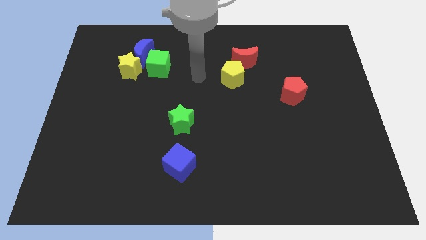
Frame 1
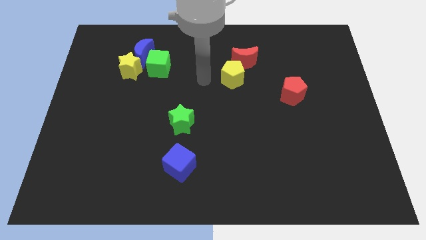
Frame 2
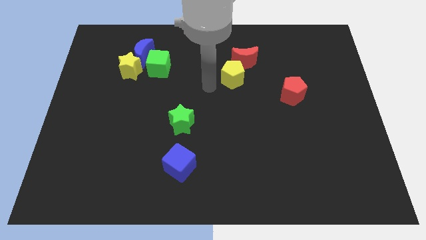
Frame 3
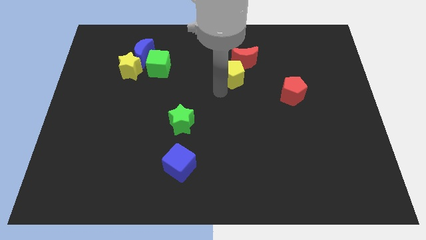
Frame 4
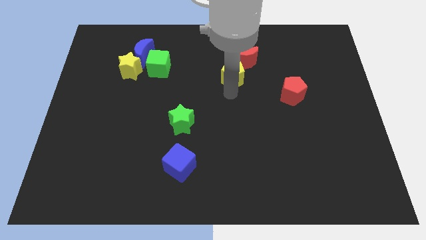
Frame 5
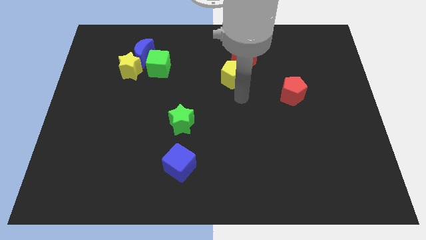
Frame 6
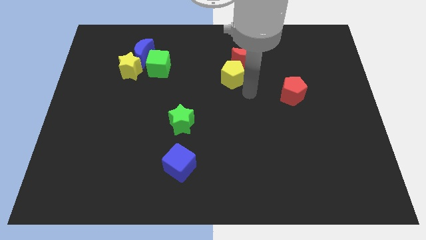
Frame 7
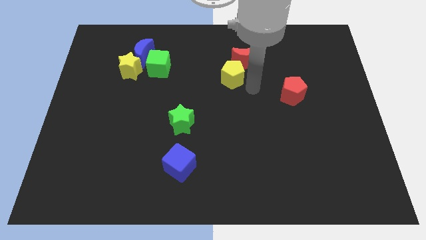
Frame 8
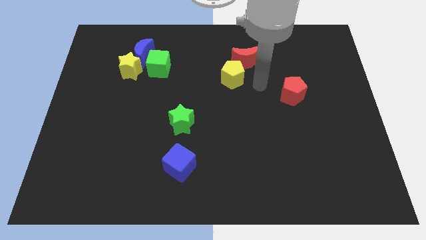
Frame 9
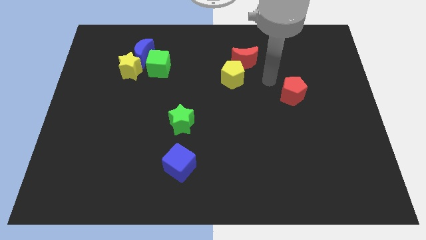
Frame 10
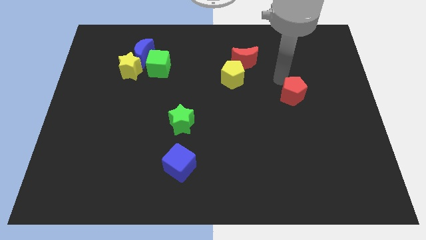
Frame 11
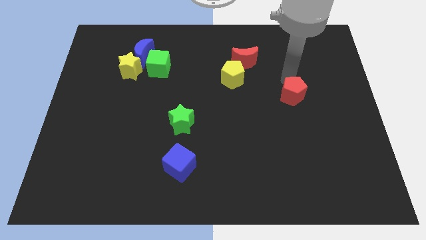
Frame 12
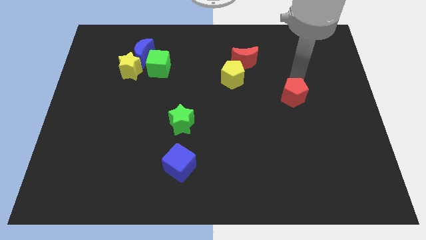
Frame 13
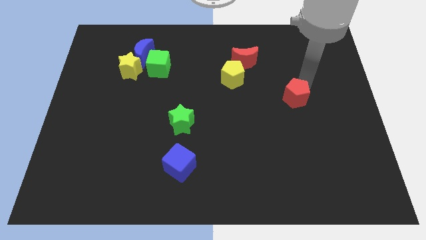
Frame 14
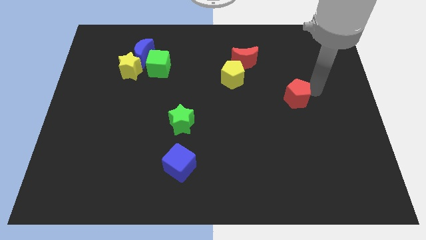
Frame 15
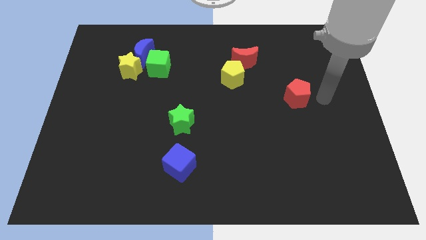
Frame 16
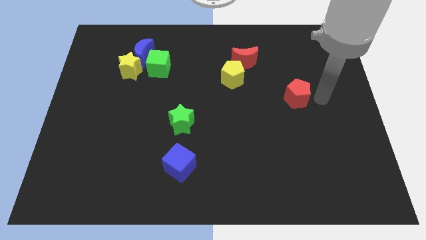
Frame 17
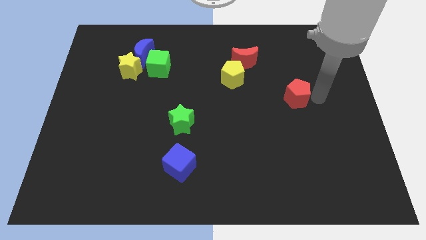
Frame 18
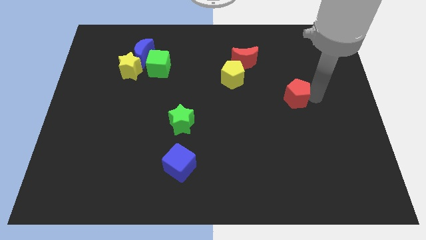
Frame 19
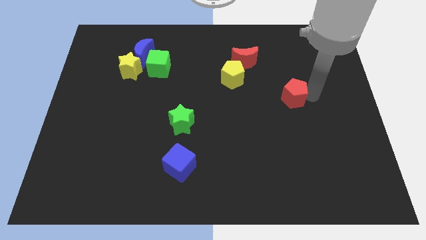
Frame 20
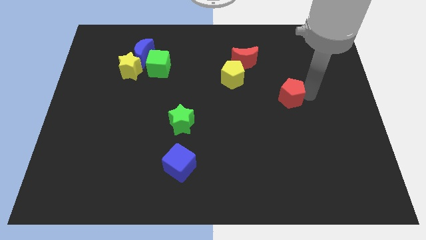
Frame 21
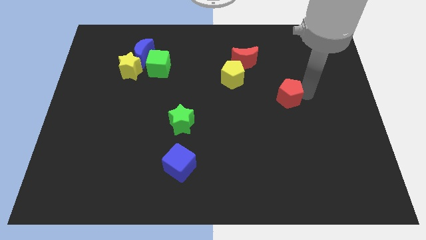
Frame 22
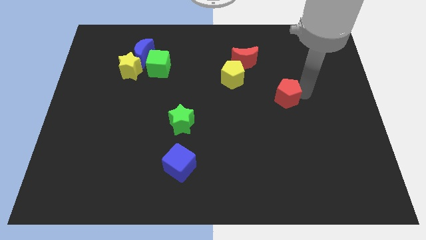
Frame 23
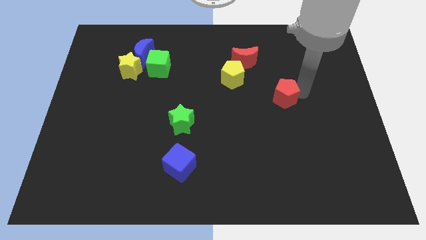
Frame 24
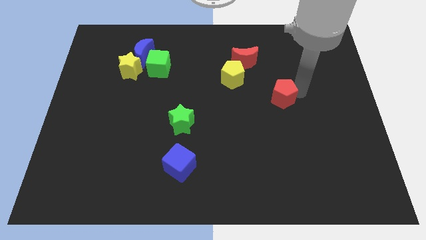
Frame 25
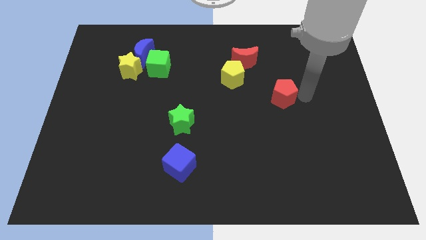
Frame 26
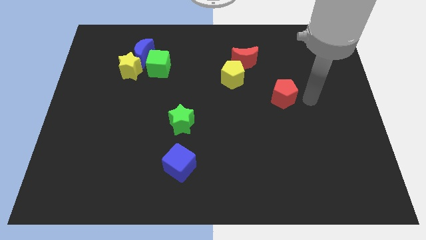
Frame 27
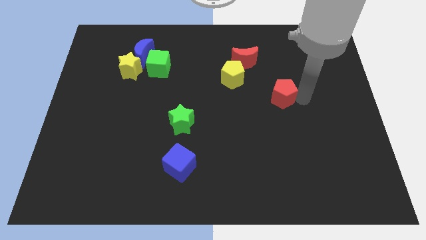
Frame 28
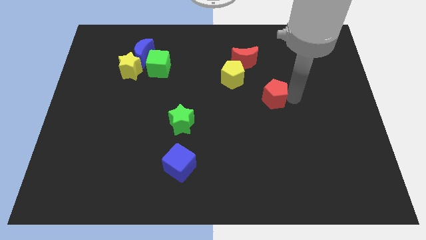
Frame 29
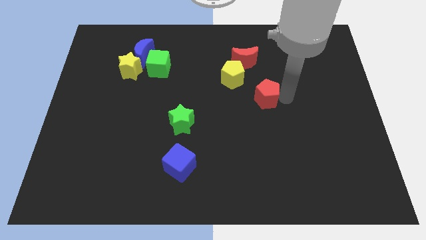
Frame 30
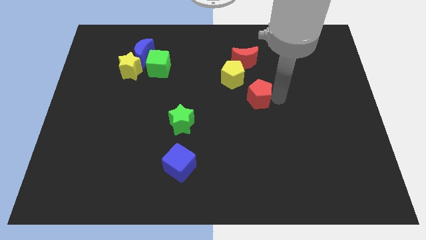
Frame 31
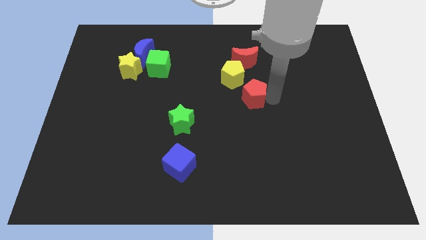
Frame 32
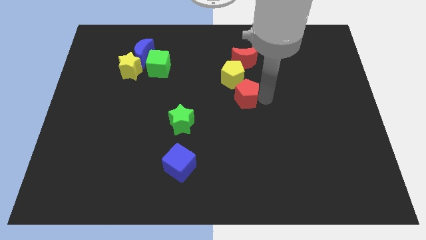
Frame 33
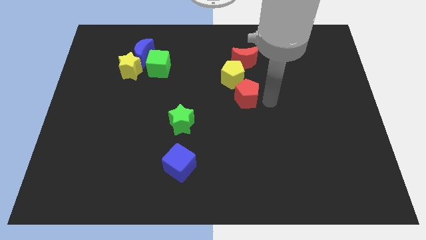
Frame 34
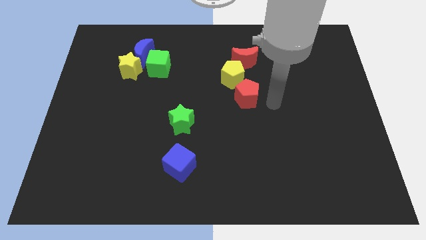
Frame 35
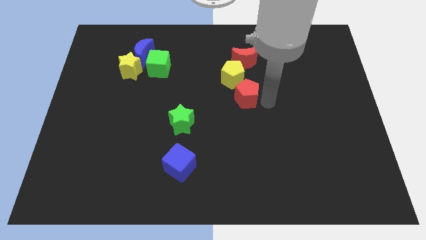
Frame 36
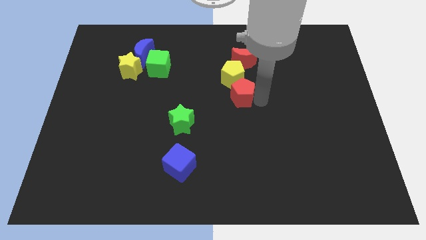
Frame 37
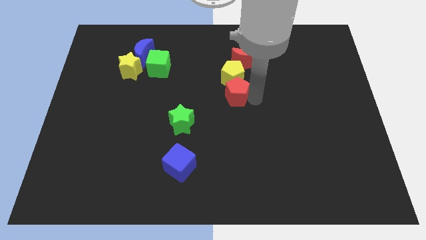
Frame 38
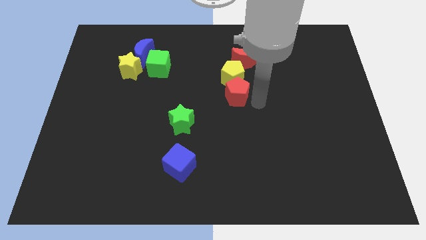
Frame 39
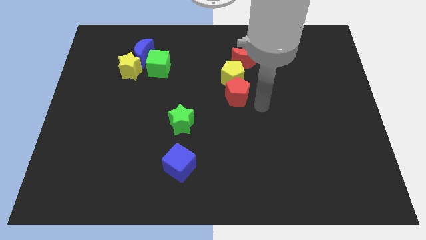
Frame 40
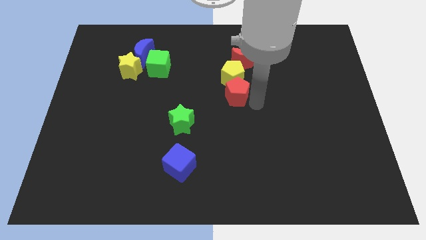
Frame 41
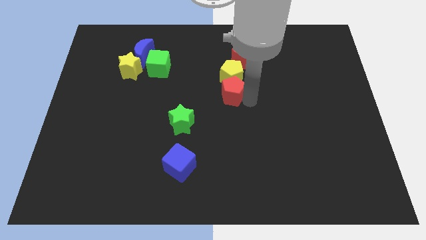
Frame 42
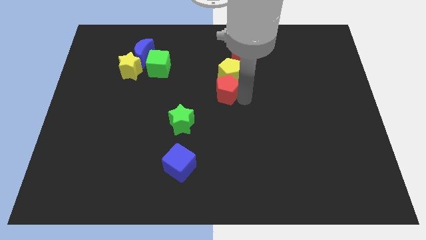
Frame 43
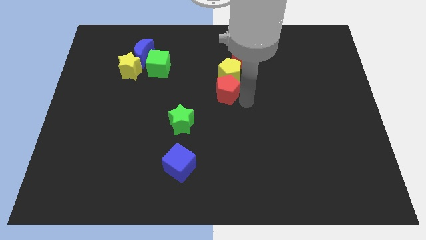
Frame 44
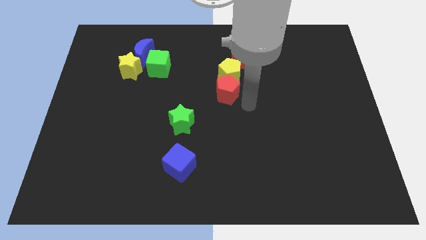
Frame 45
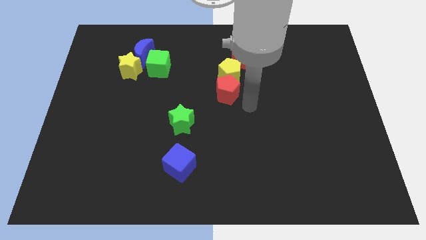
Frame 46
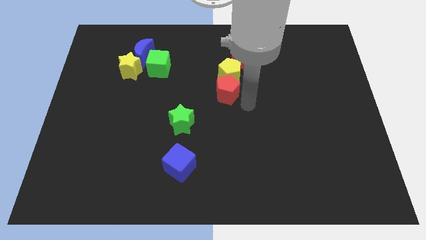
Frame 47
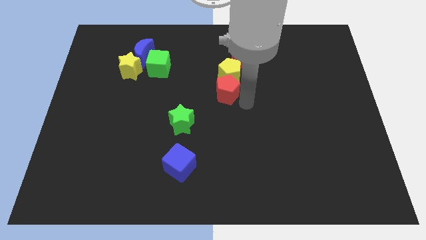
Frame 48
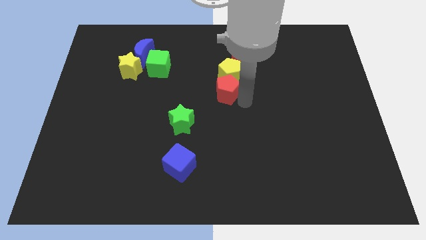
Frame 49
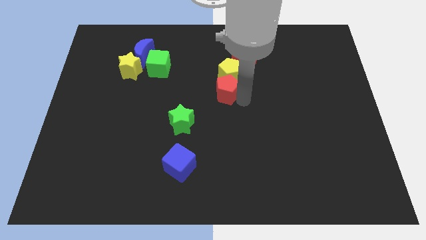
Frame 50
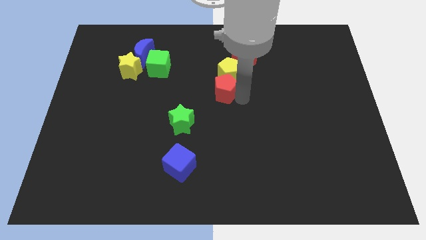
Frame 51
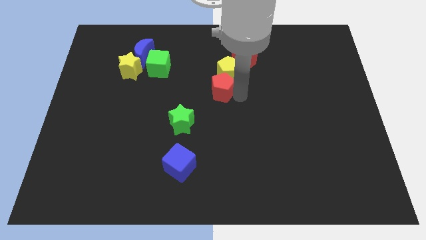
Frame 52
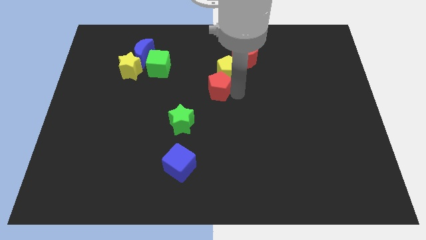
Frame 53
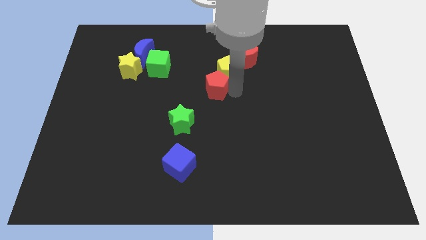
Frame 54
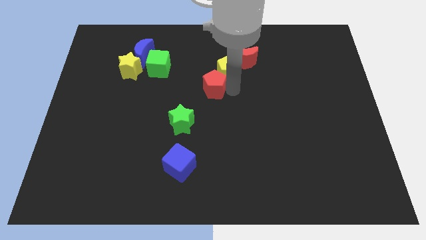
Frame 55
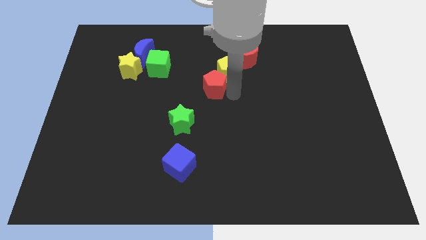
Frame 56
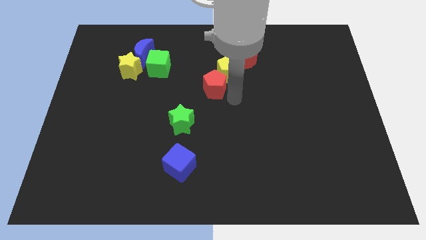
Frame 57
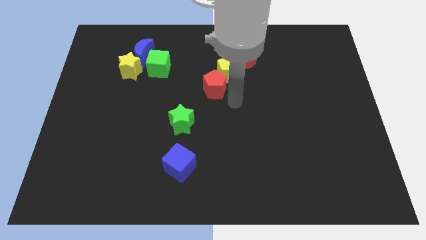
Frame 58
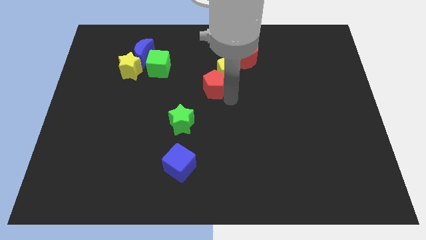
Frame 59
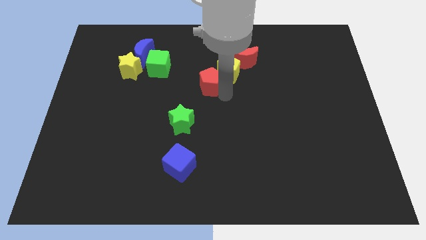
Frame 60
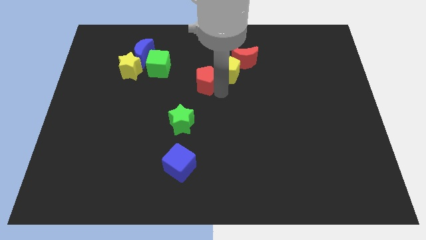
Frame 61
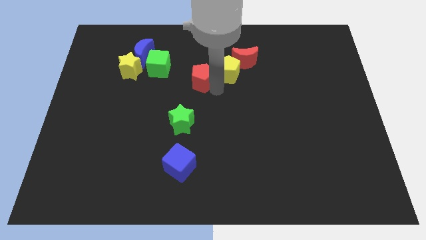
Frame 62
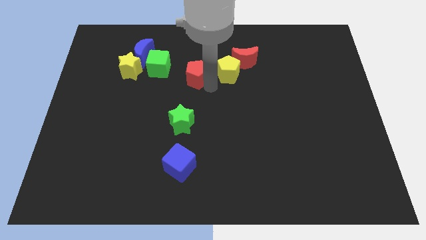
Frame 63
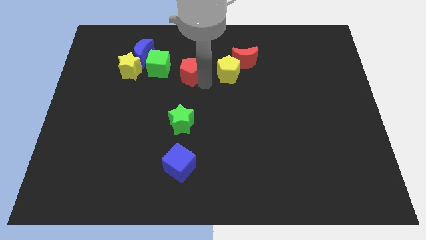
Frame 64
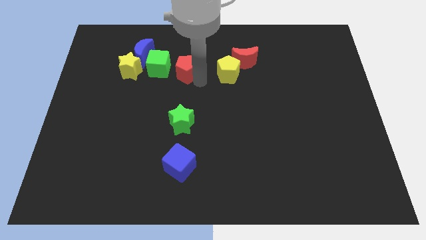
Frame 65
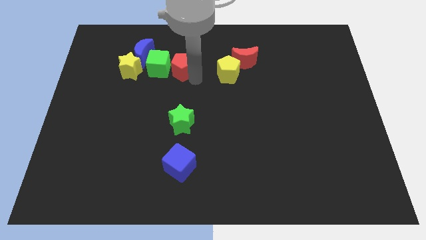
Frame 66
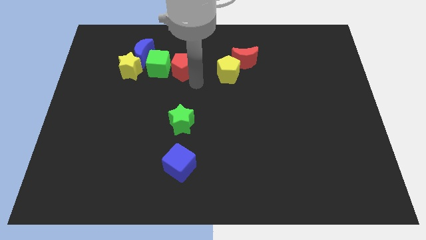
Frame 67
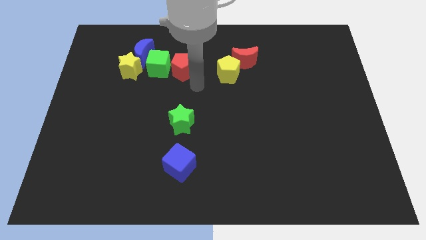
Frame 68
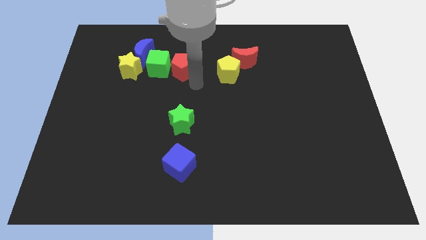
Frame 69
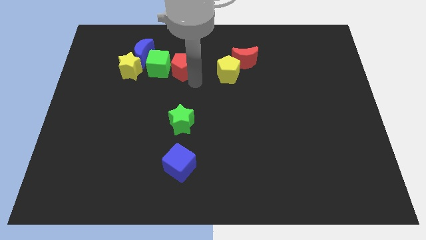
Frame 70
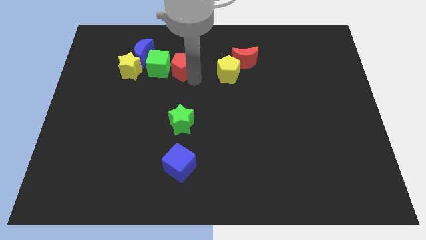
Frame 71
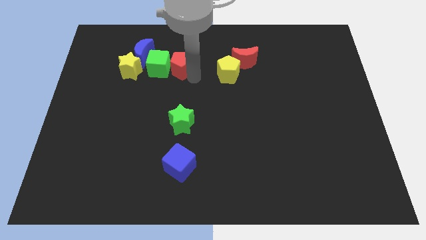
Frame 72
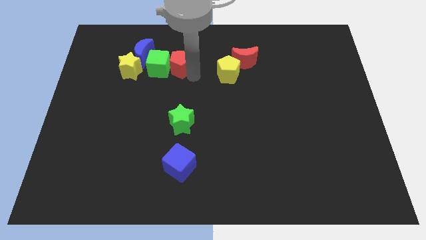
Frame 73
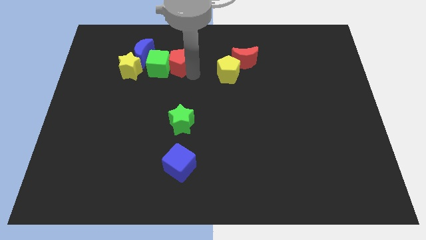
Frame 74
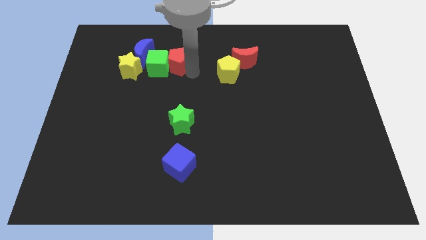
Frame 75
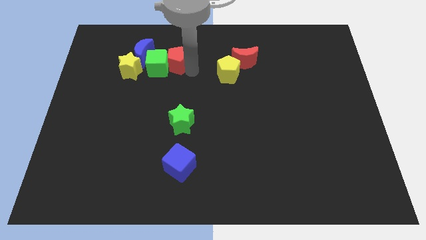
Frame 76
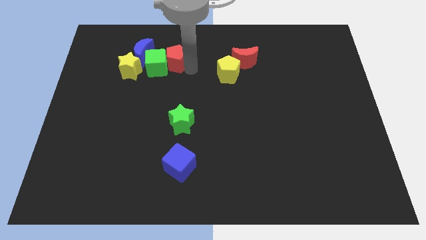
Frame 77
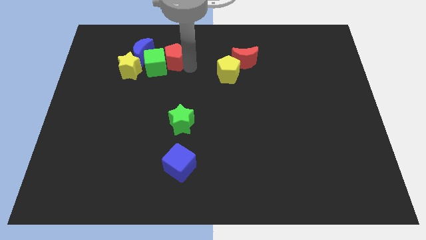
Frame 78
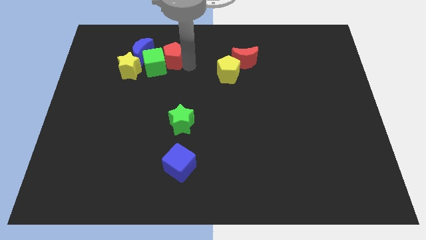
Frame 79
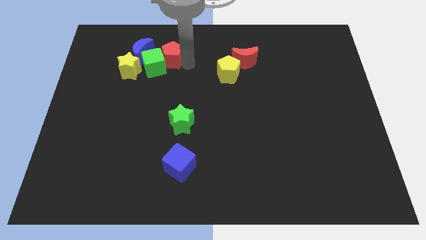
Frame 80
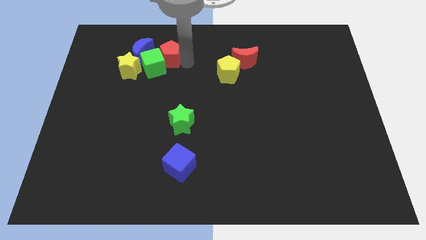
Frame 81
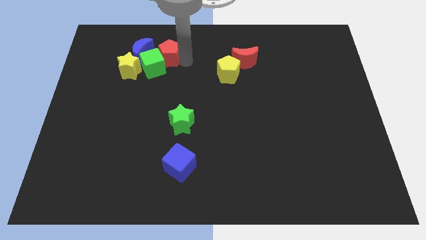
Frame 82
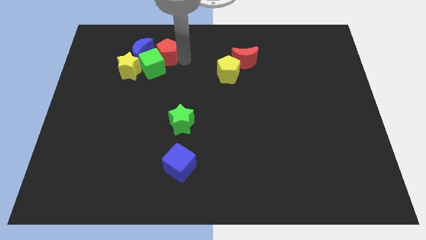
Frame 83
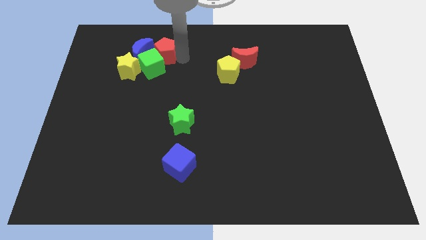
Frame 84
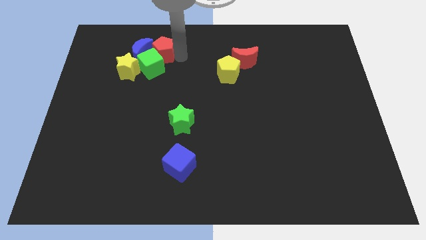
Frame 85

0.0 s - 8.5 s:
move the red pentagon next to the blue moon
